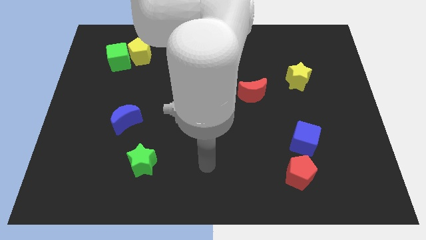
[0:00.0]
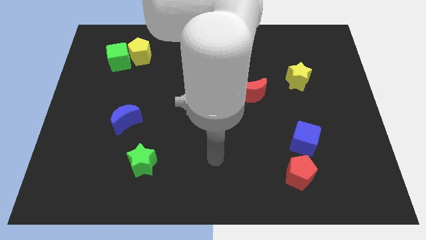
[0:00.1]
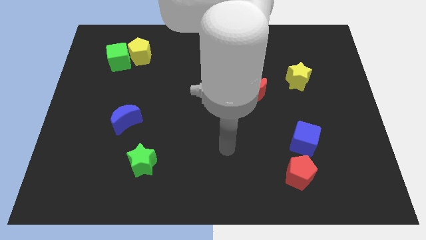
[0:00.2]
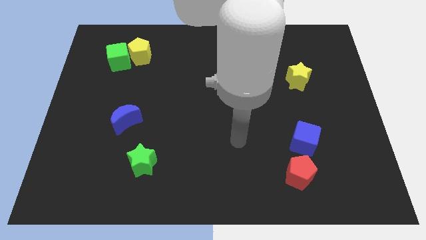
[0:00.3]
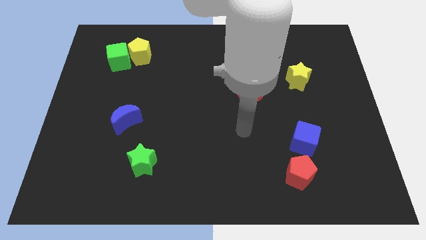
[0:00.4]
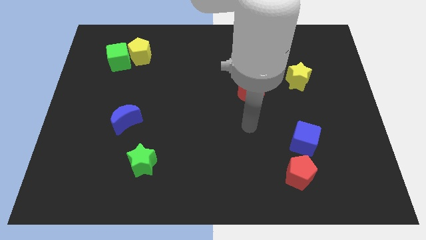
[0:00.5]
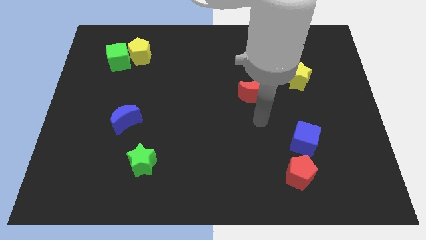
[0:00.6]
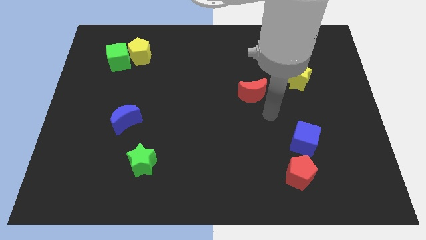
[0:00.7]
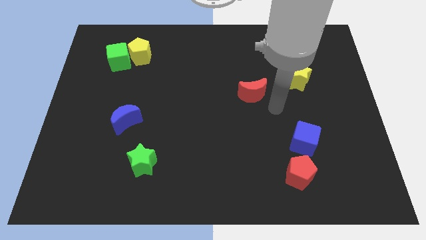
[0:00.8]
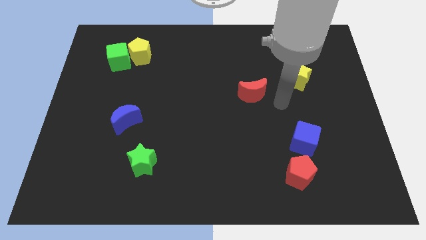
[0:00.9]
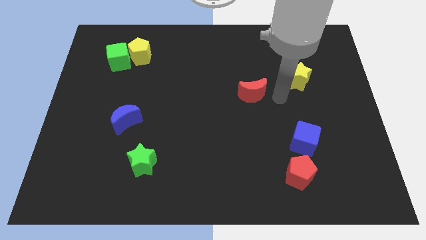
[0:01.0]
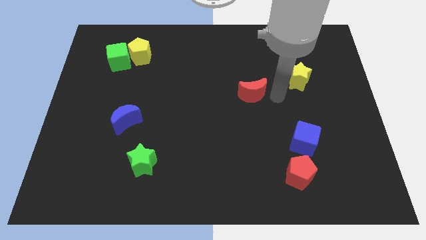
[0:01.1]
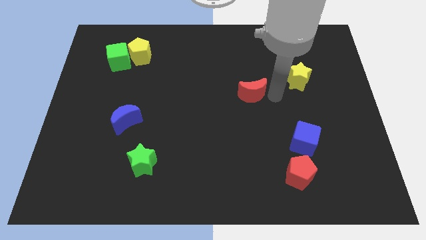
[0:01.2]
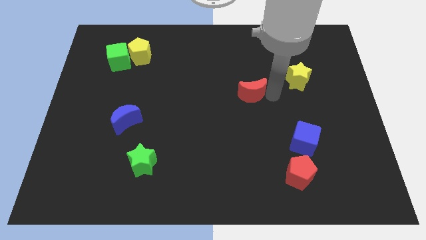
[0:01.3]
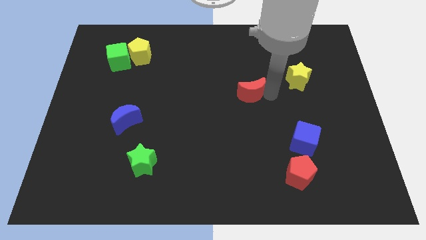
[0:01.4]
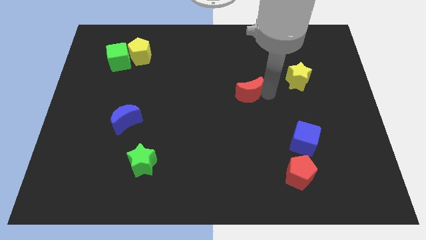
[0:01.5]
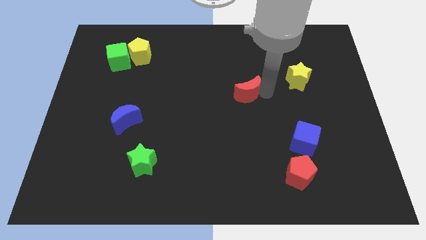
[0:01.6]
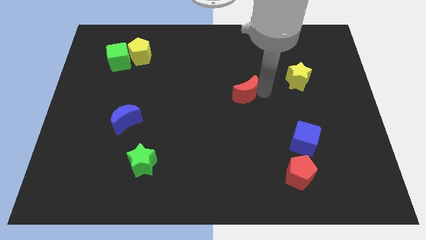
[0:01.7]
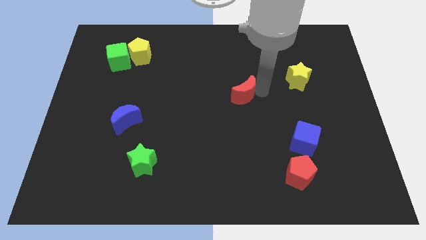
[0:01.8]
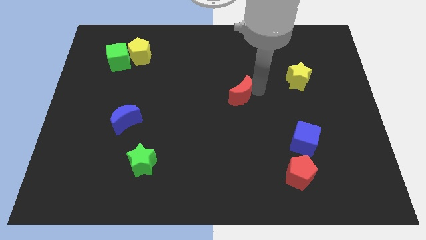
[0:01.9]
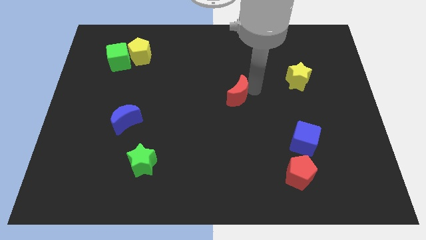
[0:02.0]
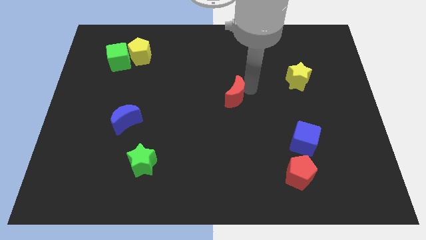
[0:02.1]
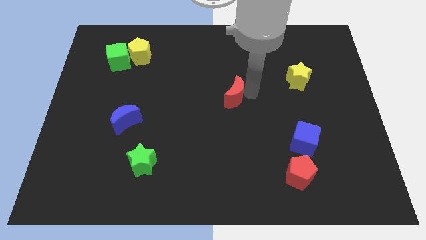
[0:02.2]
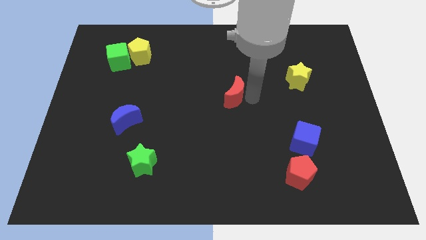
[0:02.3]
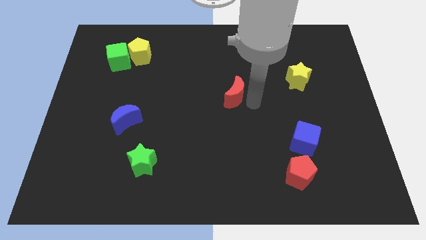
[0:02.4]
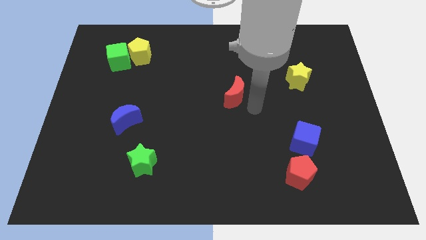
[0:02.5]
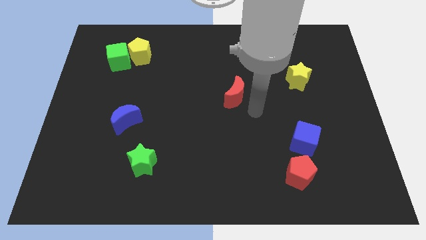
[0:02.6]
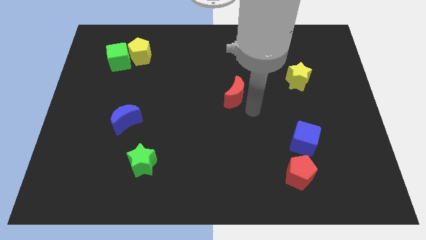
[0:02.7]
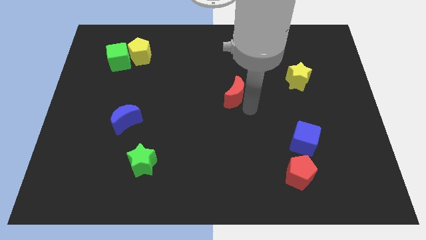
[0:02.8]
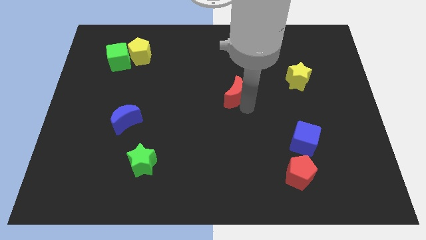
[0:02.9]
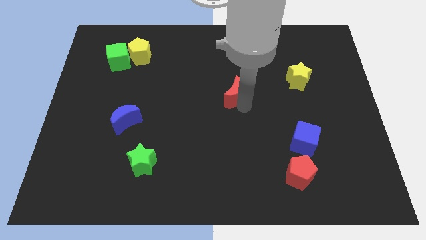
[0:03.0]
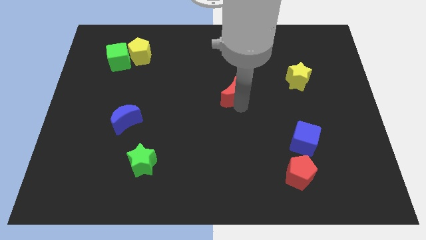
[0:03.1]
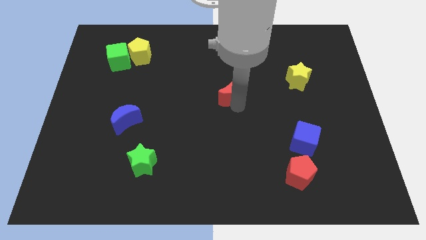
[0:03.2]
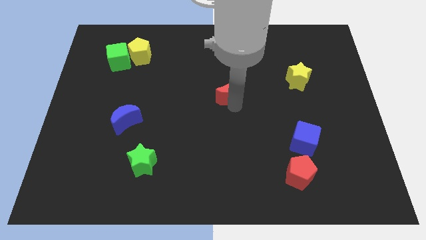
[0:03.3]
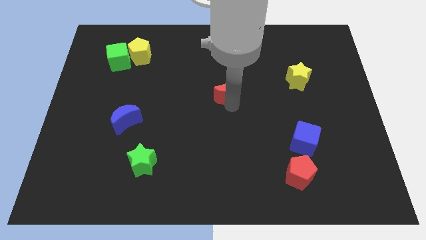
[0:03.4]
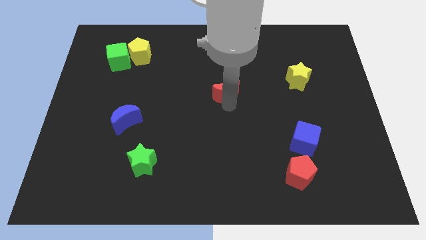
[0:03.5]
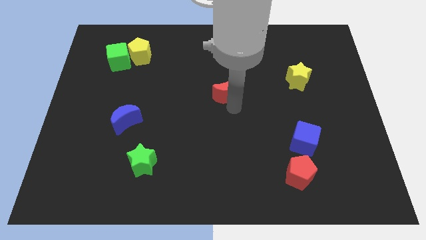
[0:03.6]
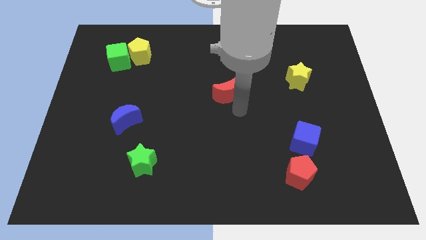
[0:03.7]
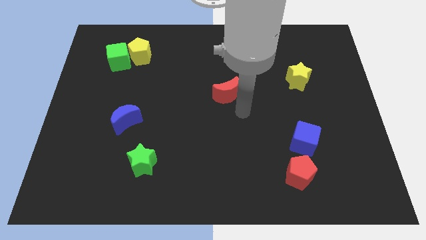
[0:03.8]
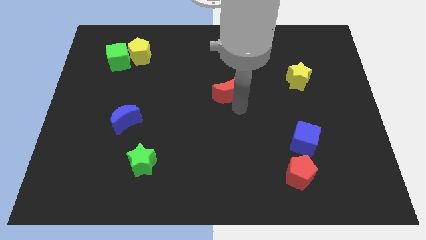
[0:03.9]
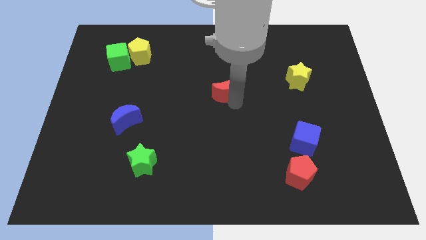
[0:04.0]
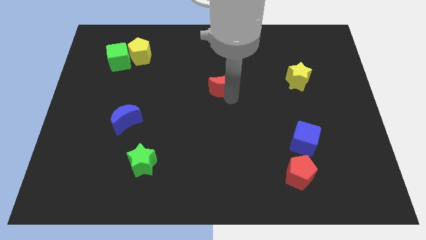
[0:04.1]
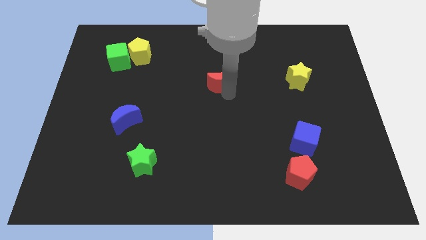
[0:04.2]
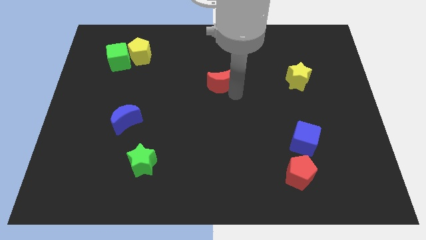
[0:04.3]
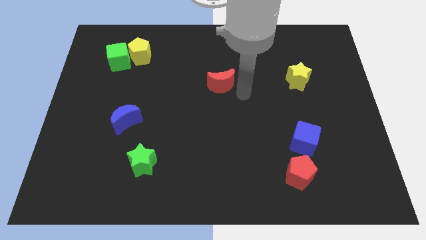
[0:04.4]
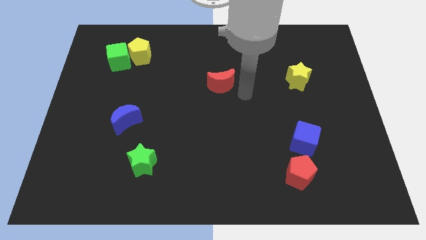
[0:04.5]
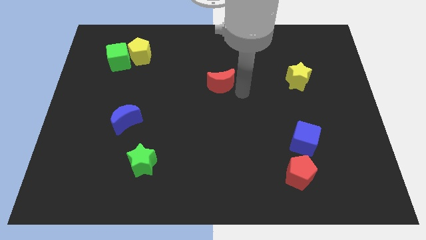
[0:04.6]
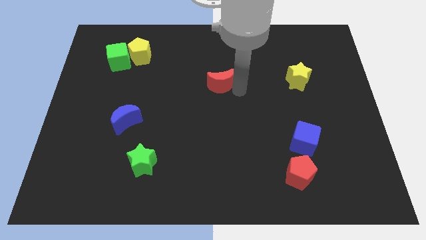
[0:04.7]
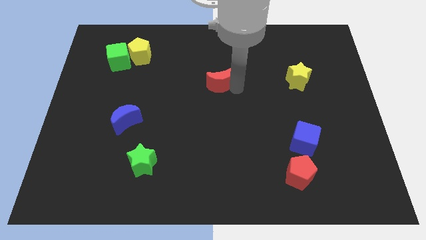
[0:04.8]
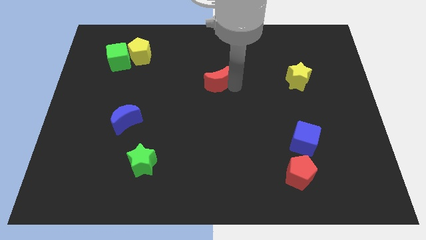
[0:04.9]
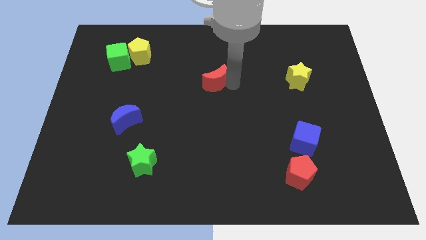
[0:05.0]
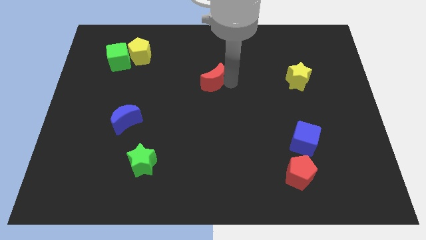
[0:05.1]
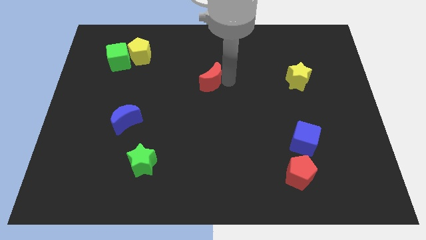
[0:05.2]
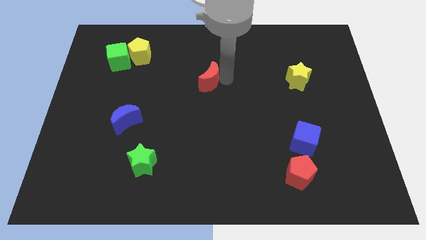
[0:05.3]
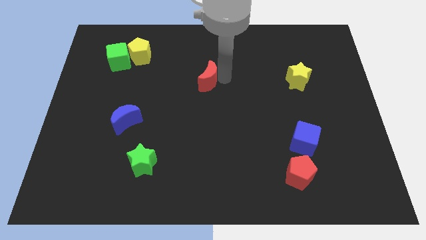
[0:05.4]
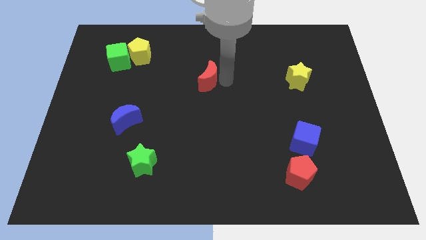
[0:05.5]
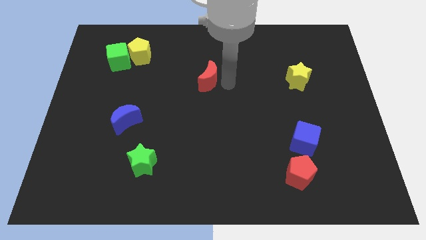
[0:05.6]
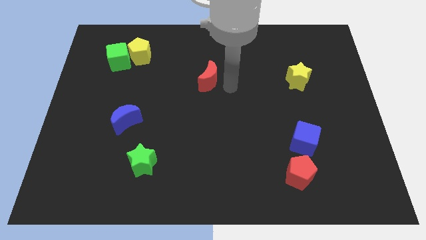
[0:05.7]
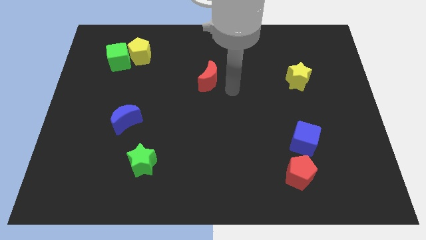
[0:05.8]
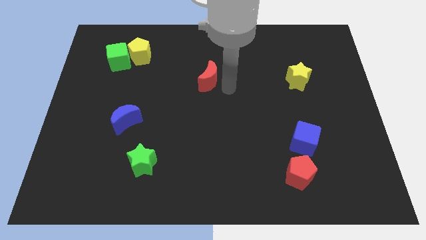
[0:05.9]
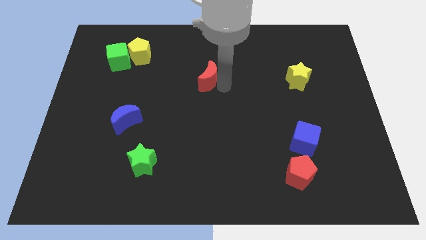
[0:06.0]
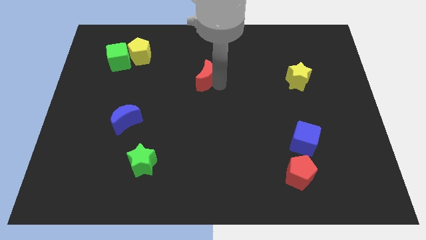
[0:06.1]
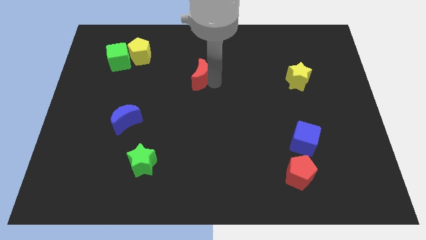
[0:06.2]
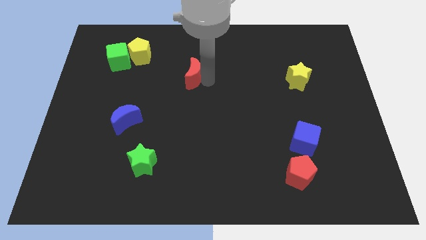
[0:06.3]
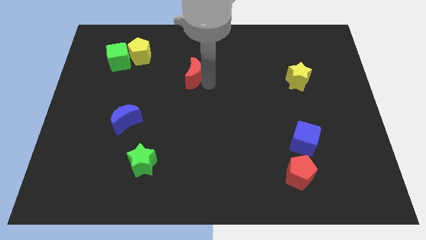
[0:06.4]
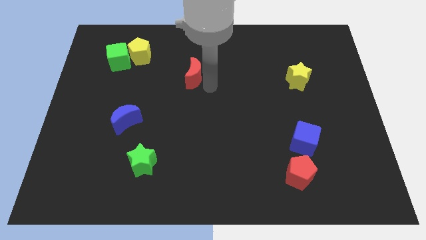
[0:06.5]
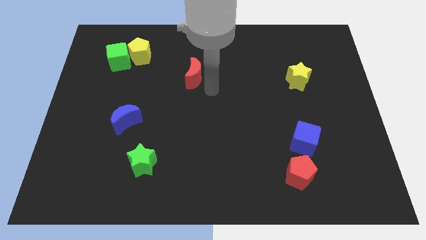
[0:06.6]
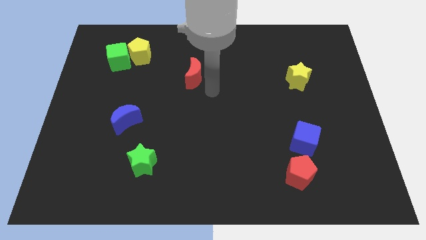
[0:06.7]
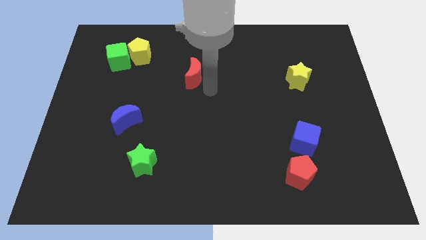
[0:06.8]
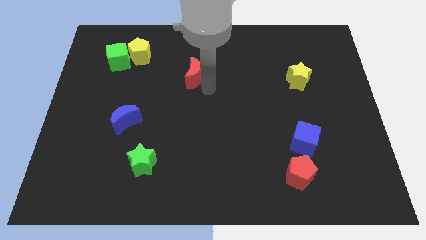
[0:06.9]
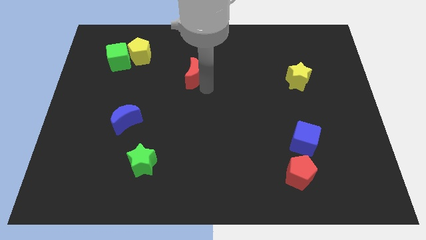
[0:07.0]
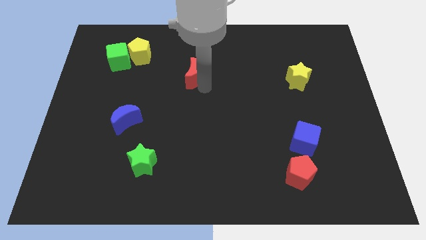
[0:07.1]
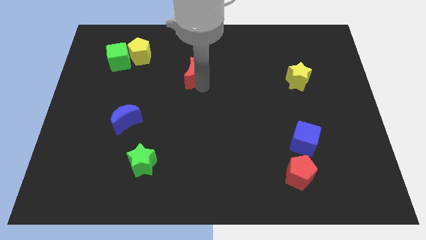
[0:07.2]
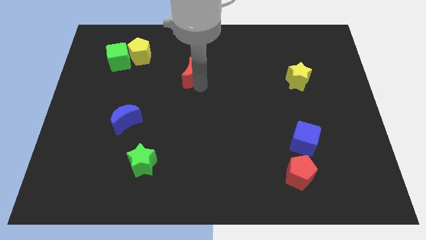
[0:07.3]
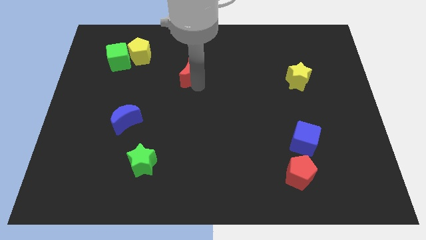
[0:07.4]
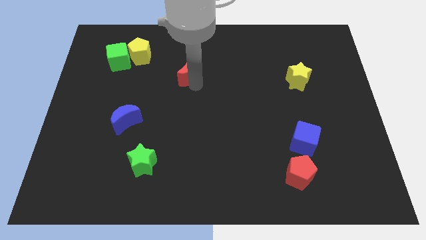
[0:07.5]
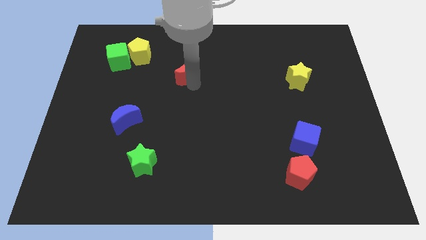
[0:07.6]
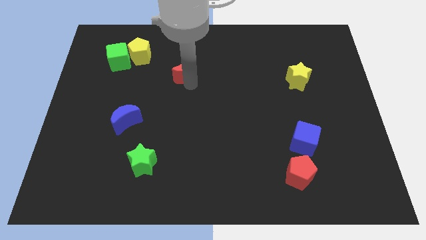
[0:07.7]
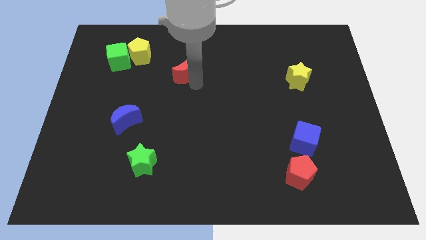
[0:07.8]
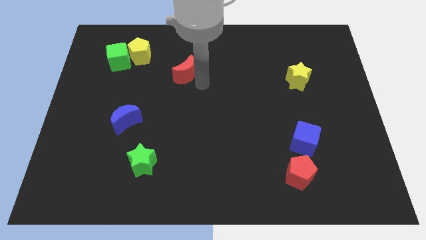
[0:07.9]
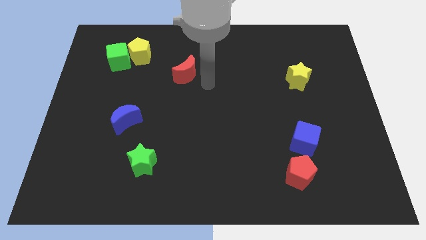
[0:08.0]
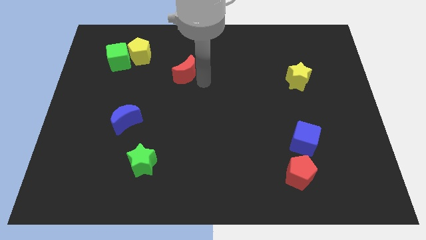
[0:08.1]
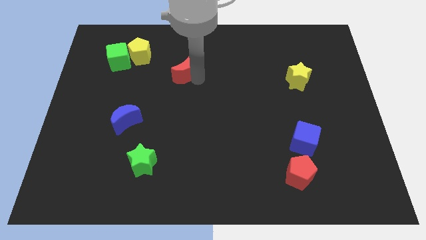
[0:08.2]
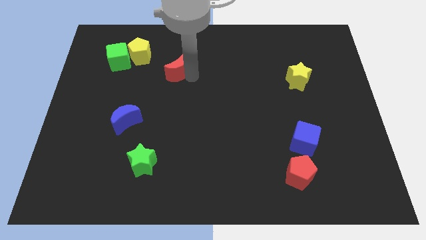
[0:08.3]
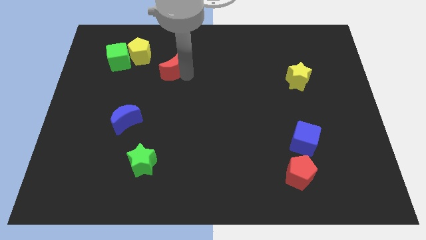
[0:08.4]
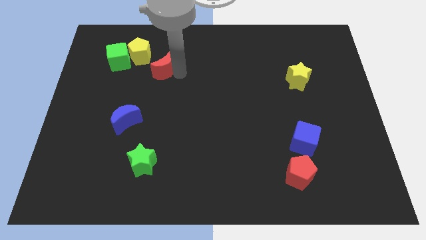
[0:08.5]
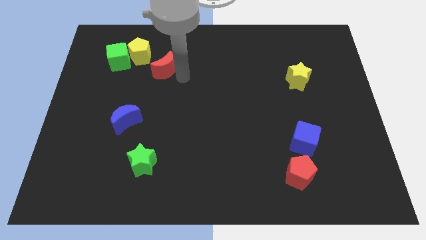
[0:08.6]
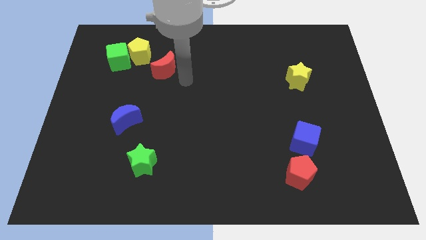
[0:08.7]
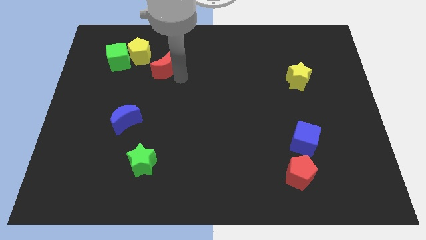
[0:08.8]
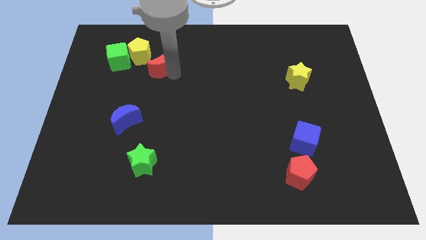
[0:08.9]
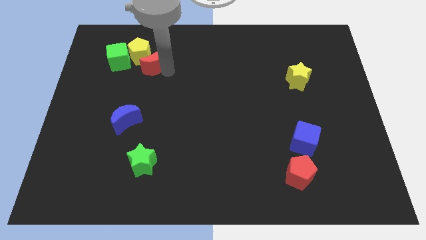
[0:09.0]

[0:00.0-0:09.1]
put the red moon to the yellow pentagon
